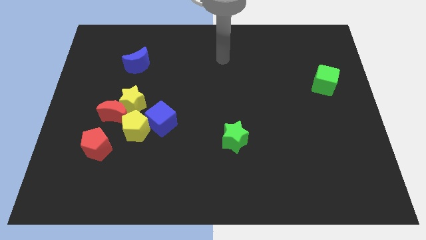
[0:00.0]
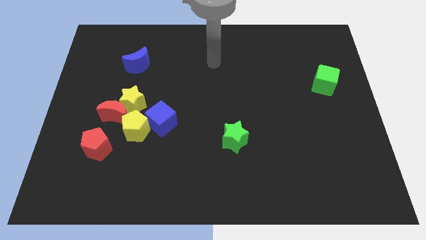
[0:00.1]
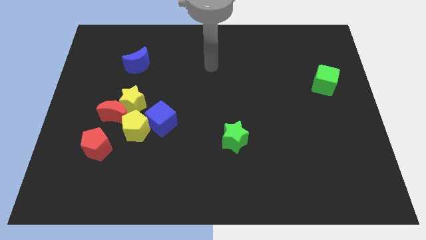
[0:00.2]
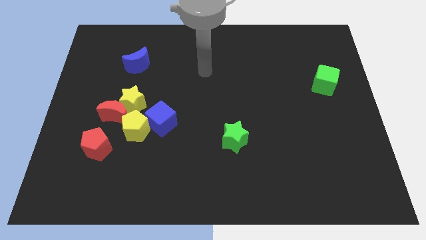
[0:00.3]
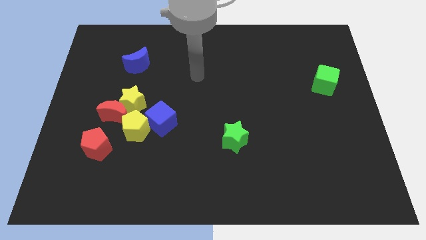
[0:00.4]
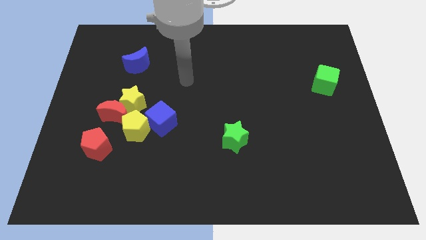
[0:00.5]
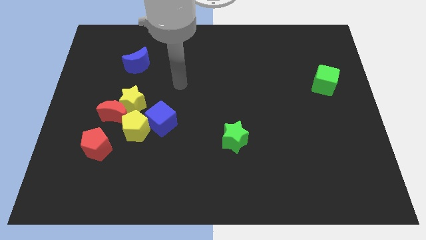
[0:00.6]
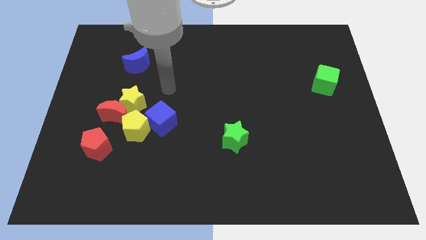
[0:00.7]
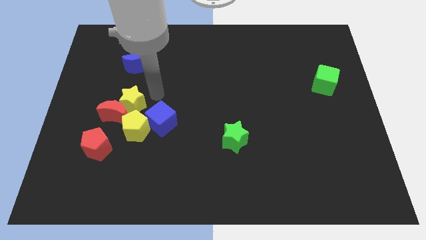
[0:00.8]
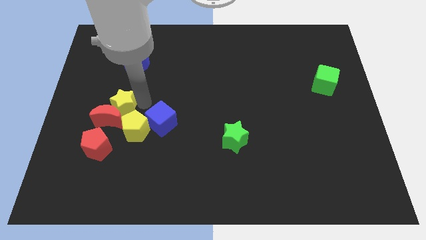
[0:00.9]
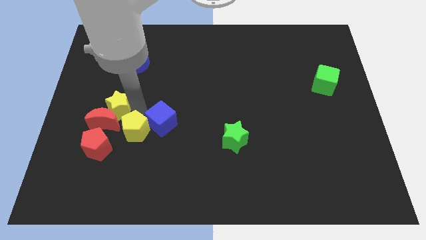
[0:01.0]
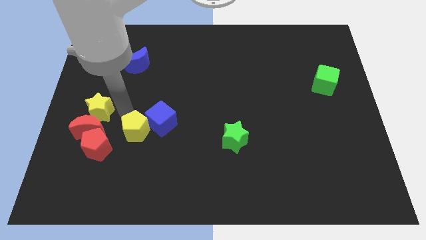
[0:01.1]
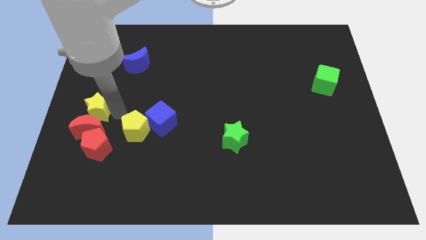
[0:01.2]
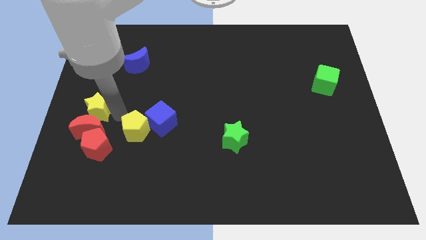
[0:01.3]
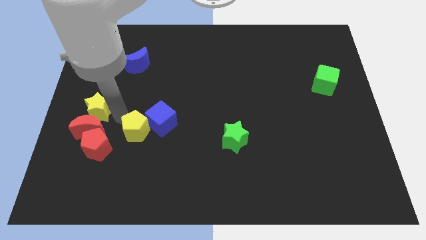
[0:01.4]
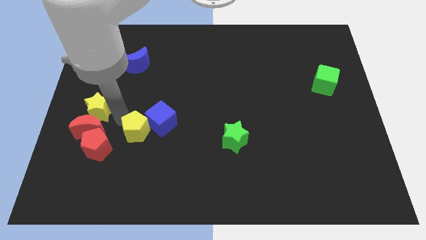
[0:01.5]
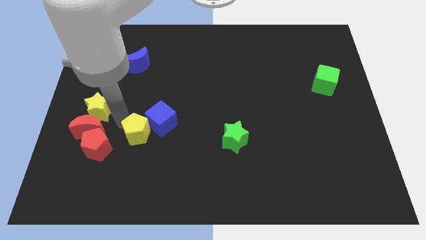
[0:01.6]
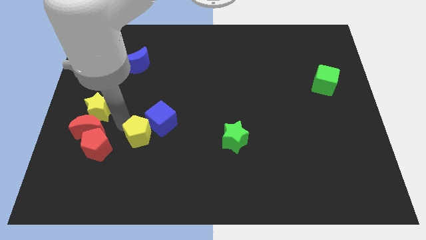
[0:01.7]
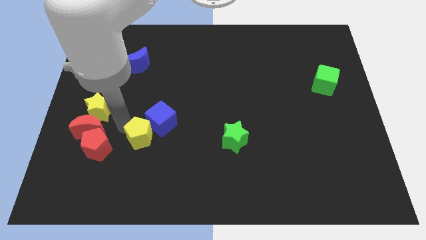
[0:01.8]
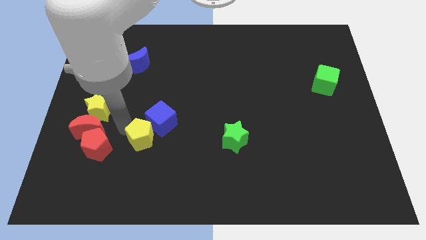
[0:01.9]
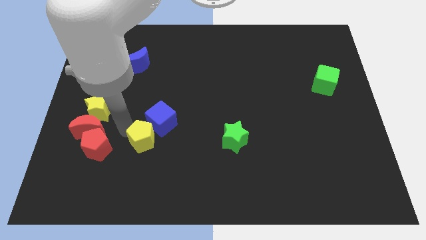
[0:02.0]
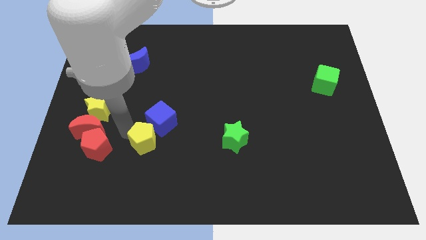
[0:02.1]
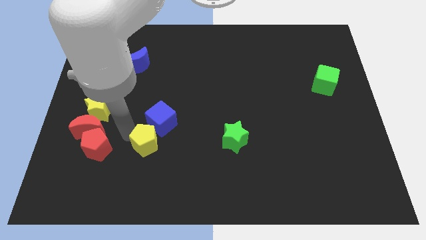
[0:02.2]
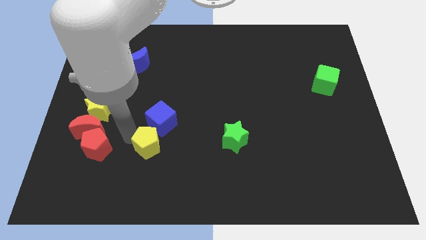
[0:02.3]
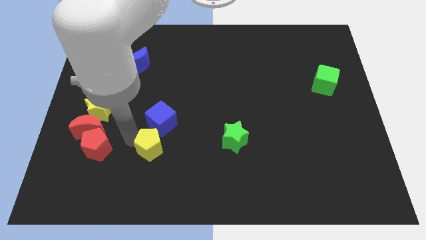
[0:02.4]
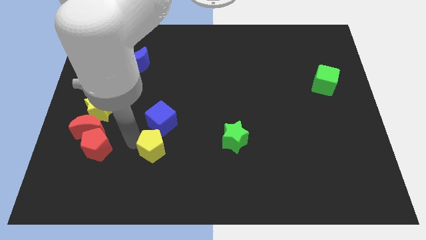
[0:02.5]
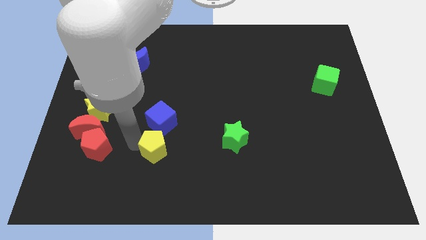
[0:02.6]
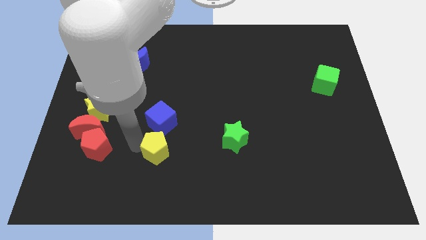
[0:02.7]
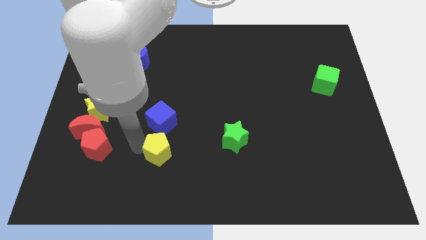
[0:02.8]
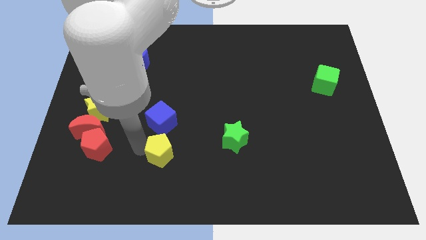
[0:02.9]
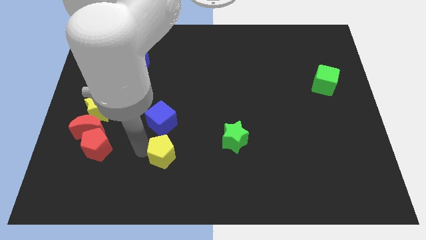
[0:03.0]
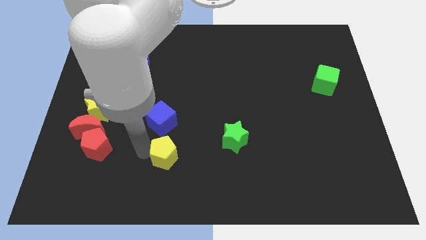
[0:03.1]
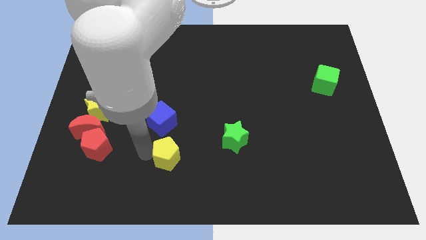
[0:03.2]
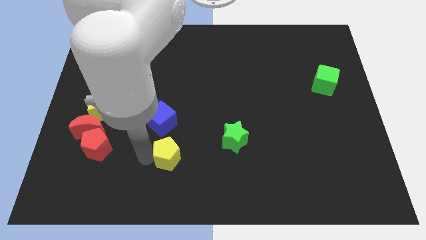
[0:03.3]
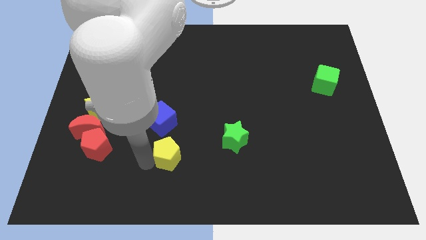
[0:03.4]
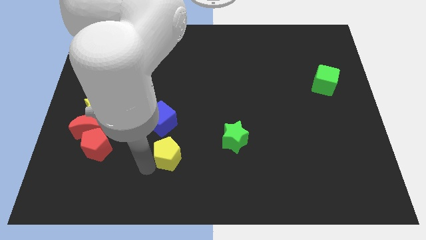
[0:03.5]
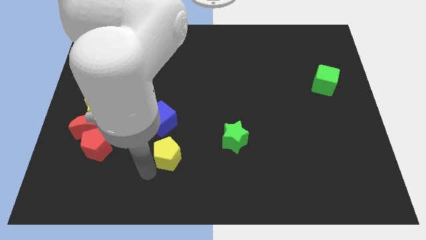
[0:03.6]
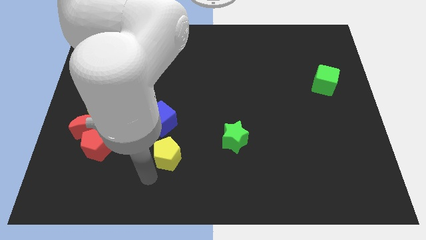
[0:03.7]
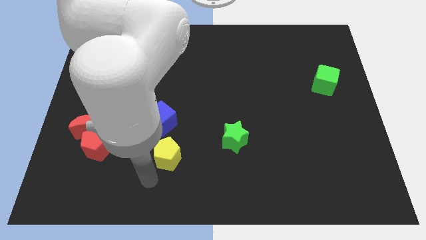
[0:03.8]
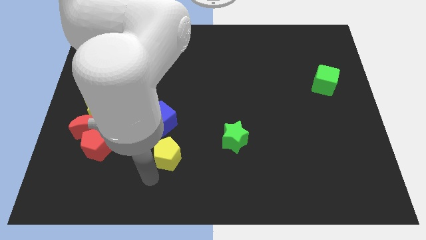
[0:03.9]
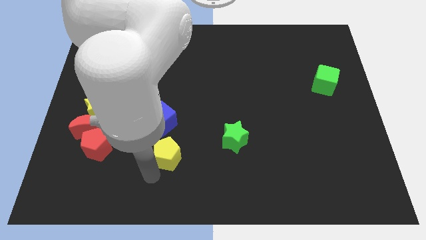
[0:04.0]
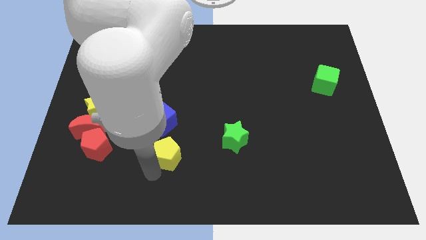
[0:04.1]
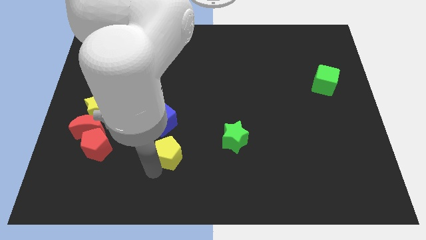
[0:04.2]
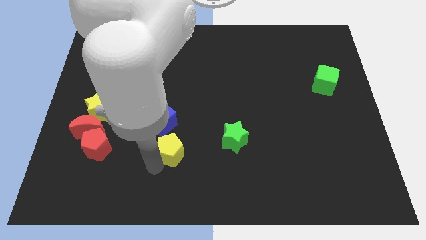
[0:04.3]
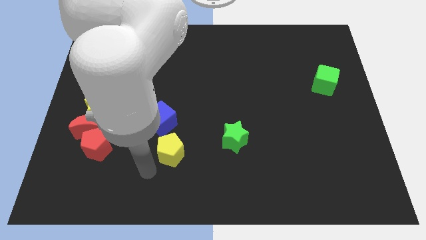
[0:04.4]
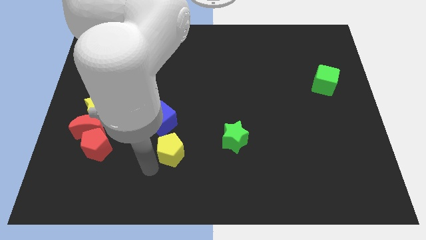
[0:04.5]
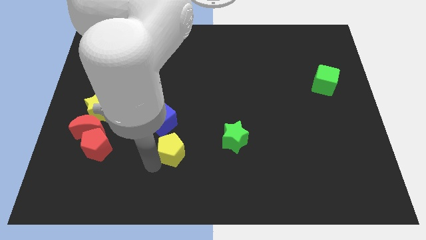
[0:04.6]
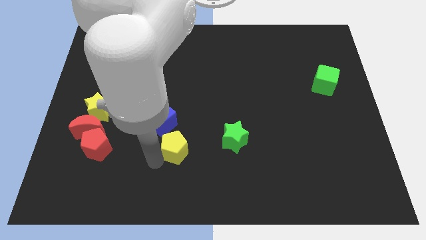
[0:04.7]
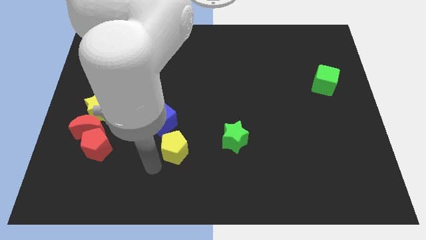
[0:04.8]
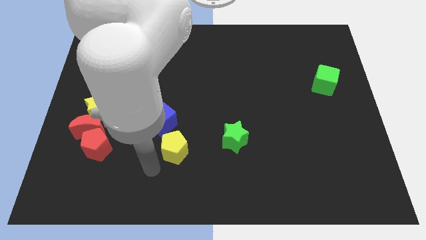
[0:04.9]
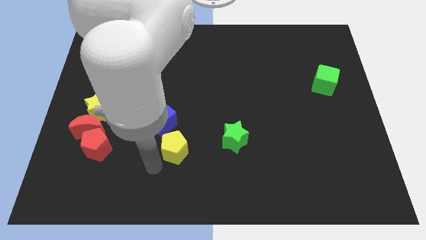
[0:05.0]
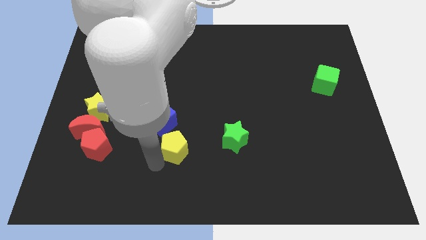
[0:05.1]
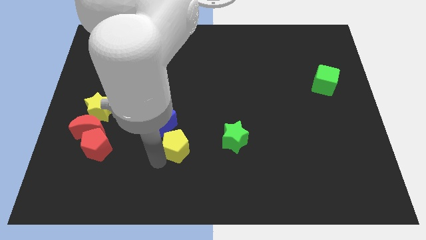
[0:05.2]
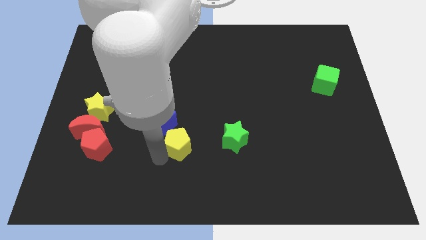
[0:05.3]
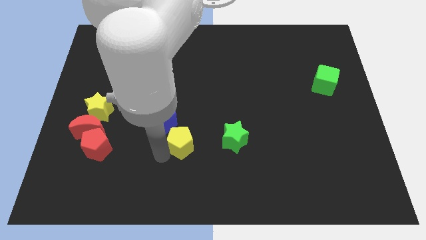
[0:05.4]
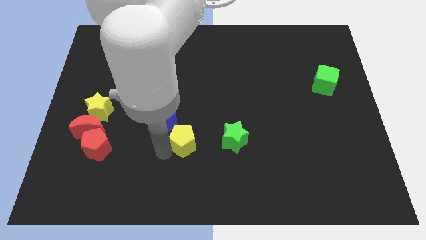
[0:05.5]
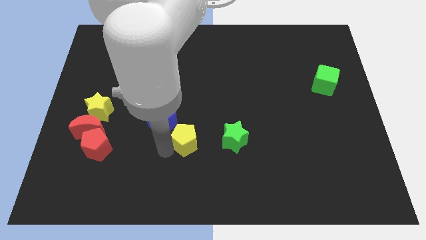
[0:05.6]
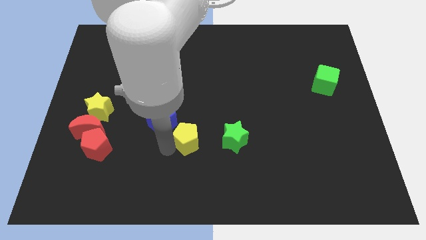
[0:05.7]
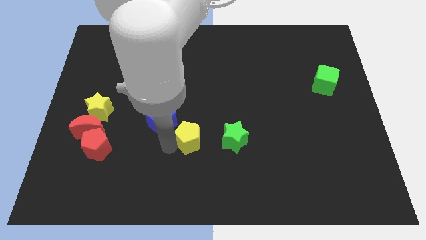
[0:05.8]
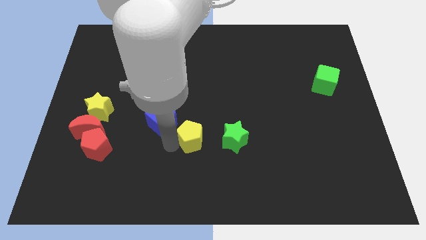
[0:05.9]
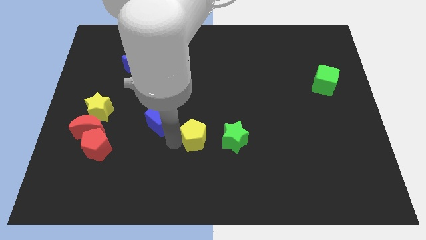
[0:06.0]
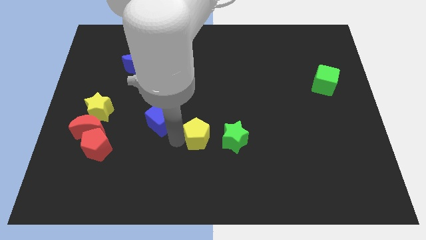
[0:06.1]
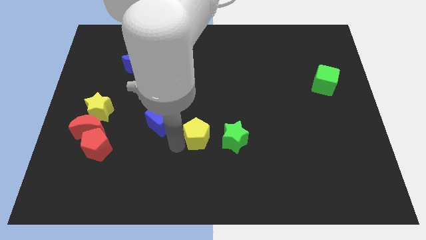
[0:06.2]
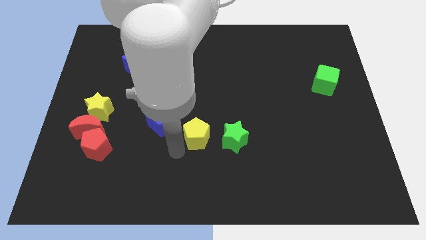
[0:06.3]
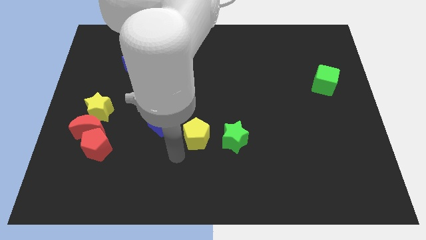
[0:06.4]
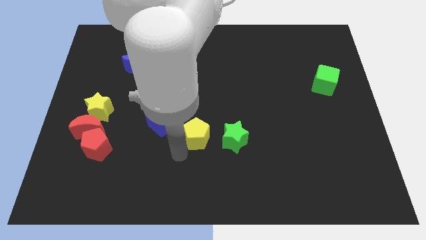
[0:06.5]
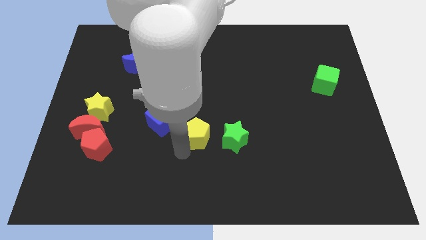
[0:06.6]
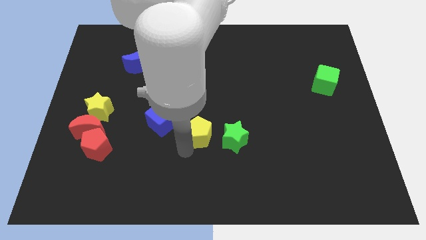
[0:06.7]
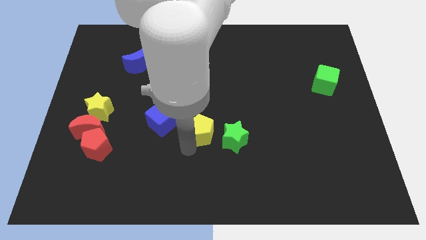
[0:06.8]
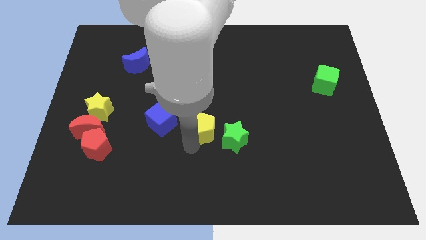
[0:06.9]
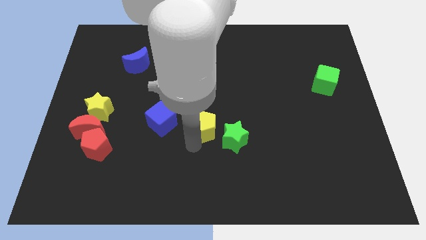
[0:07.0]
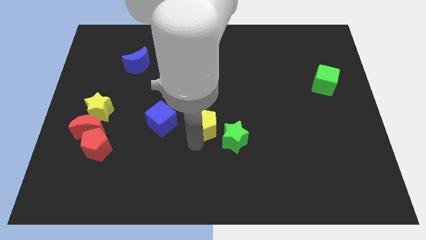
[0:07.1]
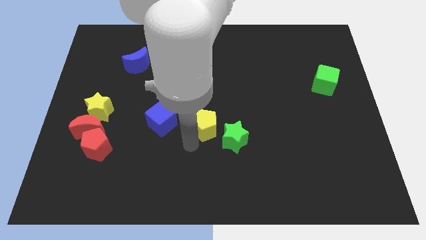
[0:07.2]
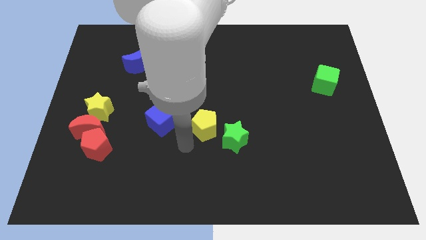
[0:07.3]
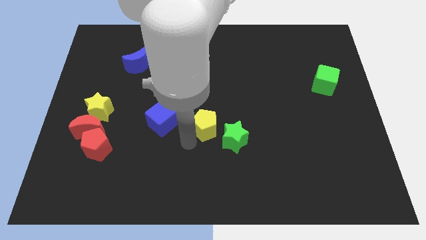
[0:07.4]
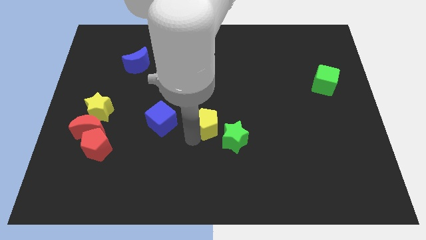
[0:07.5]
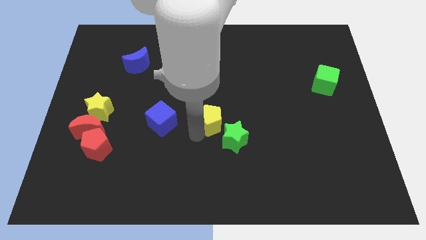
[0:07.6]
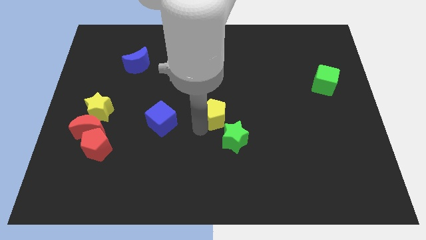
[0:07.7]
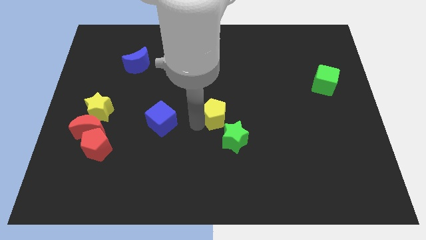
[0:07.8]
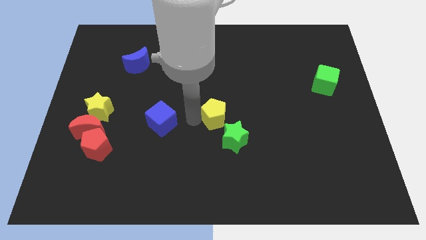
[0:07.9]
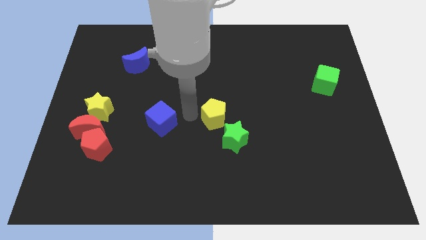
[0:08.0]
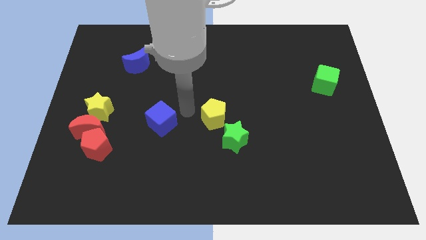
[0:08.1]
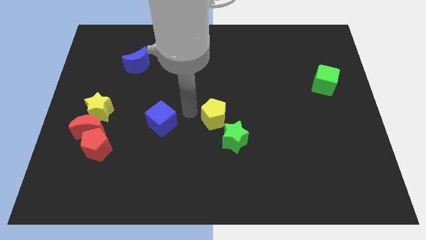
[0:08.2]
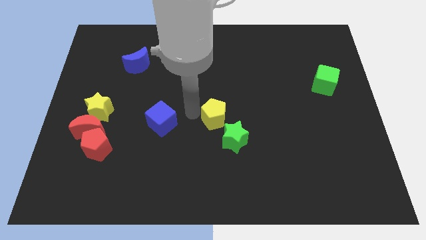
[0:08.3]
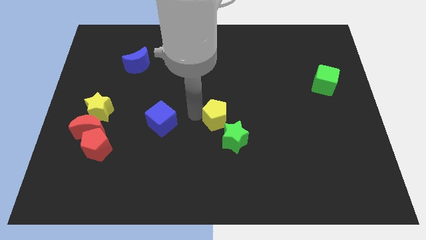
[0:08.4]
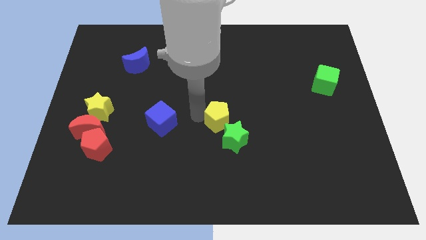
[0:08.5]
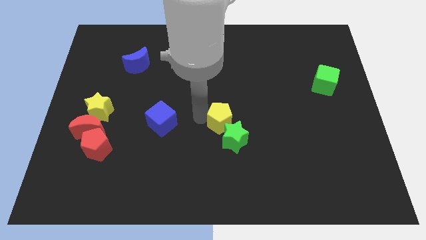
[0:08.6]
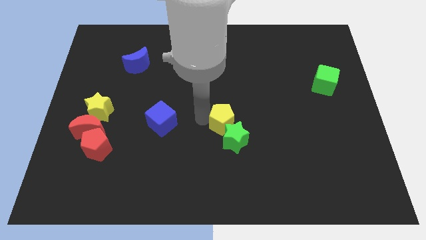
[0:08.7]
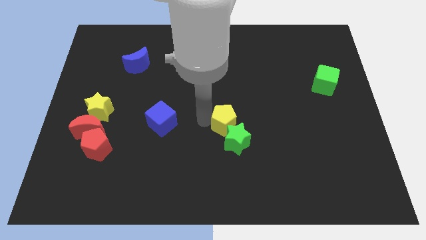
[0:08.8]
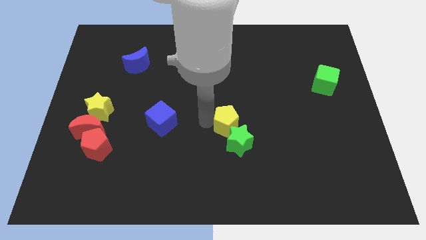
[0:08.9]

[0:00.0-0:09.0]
push the yellow pentagon right
